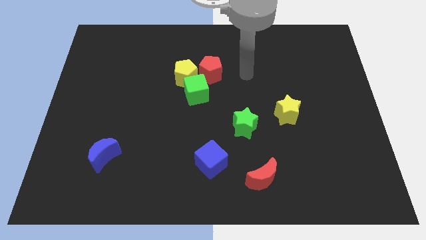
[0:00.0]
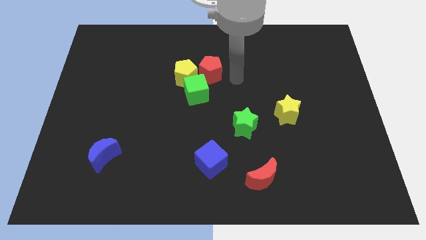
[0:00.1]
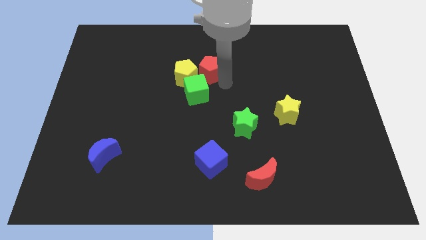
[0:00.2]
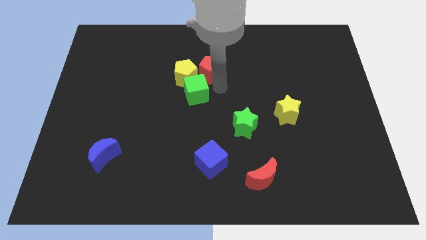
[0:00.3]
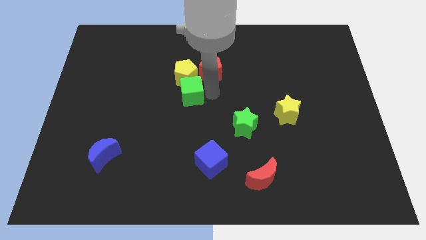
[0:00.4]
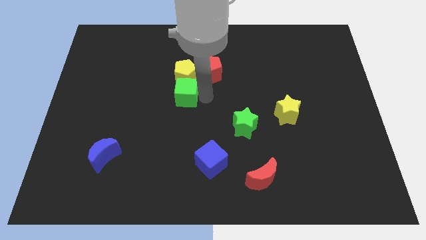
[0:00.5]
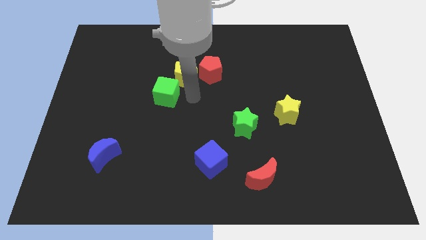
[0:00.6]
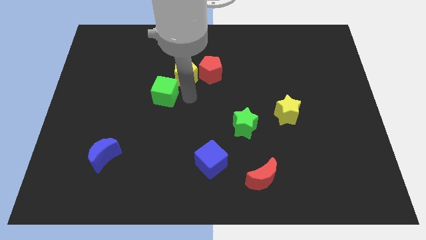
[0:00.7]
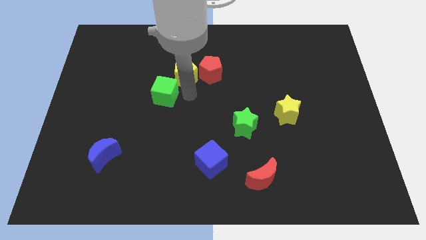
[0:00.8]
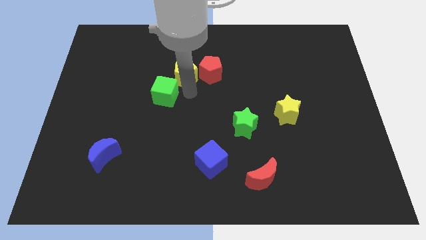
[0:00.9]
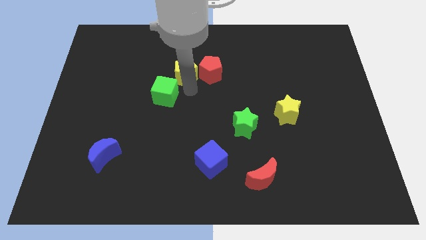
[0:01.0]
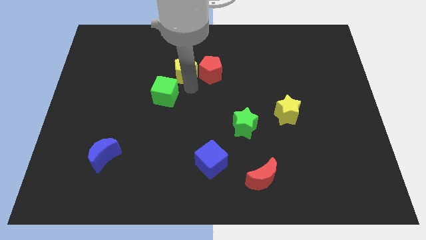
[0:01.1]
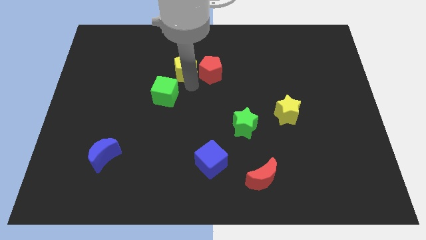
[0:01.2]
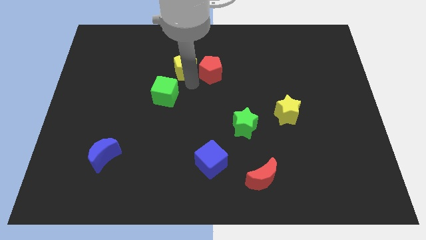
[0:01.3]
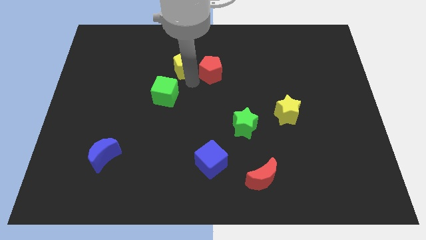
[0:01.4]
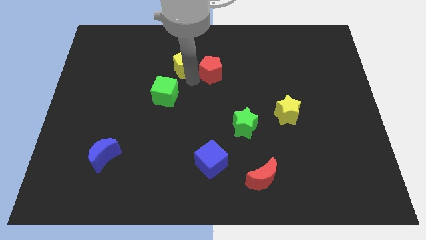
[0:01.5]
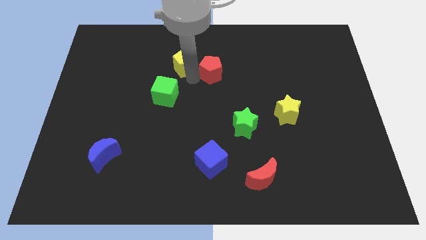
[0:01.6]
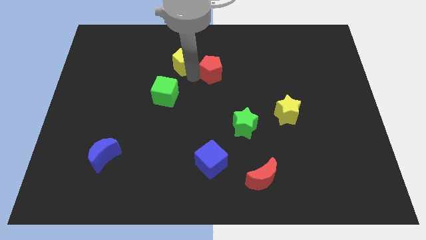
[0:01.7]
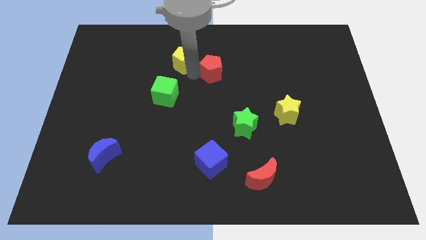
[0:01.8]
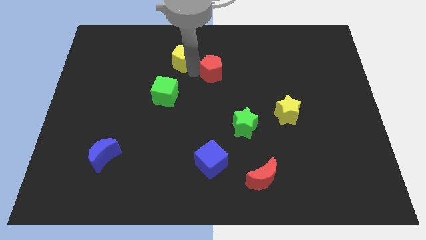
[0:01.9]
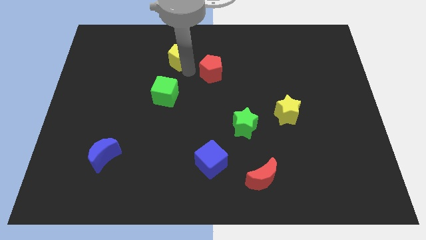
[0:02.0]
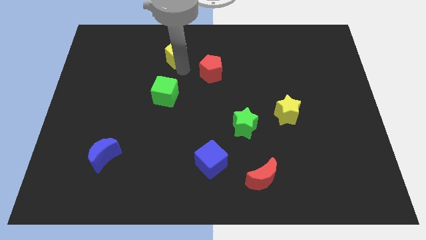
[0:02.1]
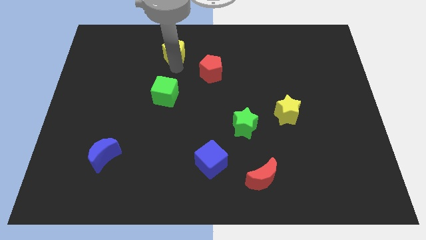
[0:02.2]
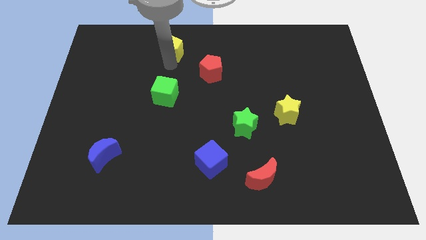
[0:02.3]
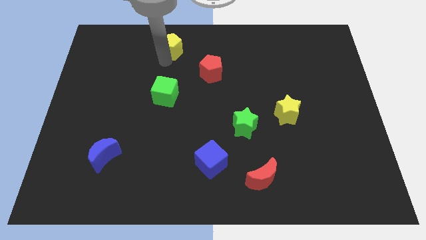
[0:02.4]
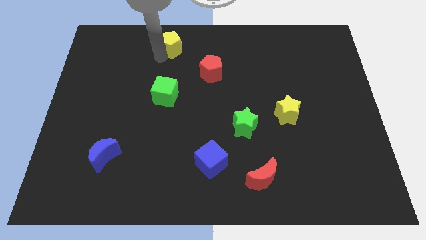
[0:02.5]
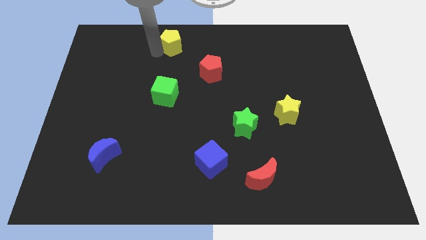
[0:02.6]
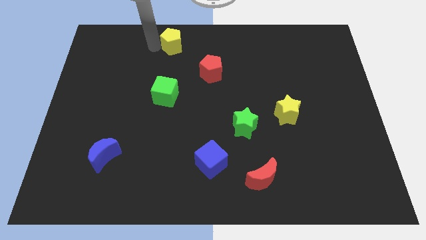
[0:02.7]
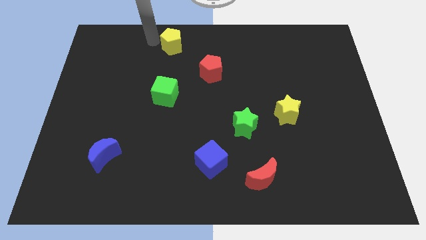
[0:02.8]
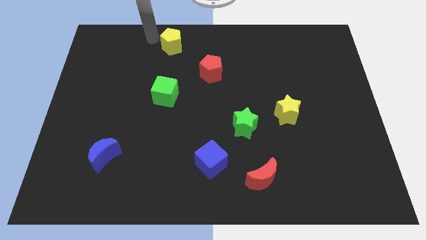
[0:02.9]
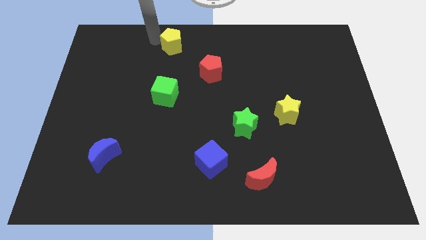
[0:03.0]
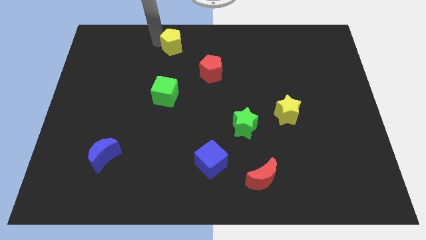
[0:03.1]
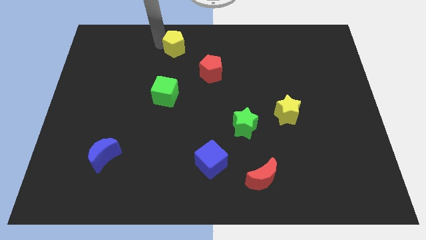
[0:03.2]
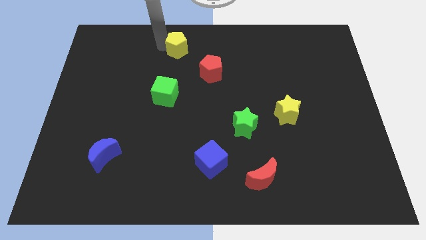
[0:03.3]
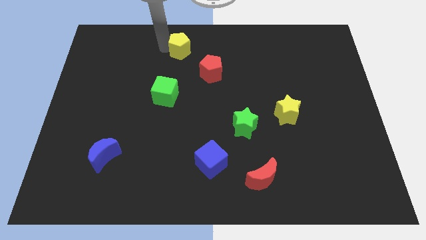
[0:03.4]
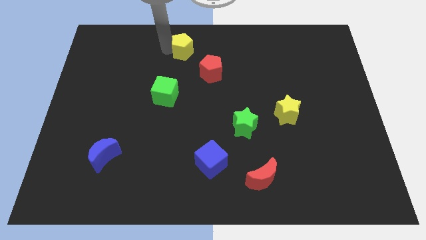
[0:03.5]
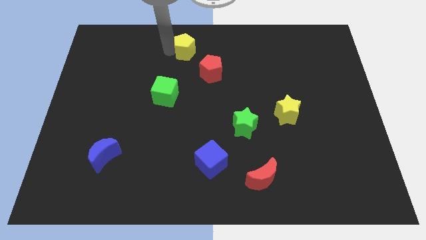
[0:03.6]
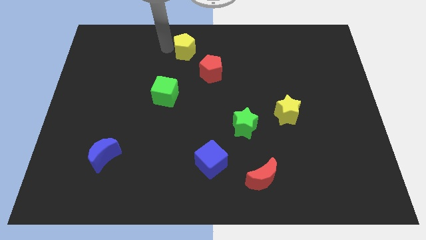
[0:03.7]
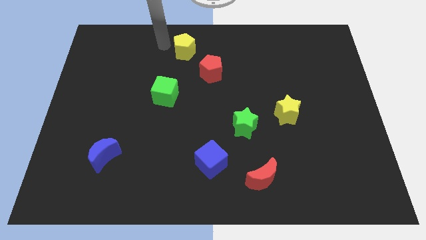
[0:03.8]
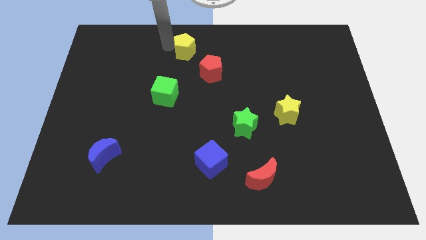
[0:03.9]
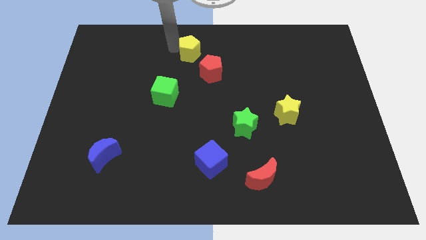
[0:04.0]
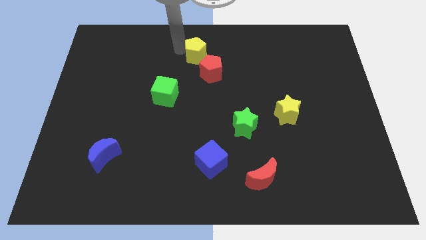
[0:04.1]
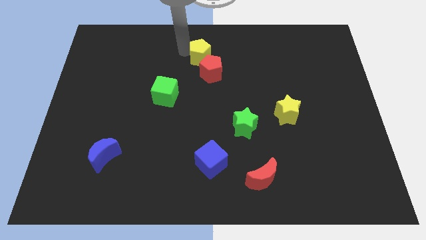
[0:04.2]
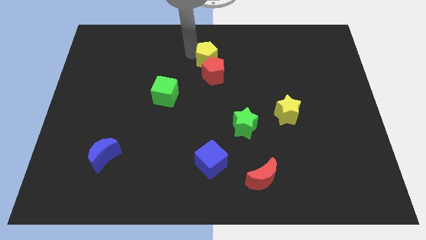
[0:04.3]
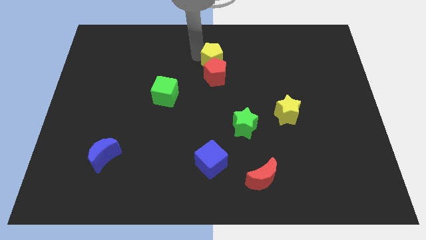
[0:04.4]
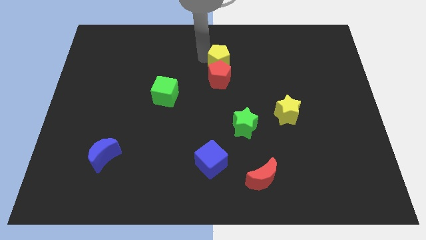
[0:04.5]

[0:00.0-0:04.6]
slightly push the yellow pentagon to the right

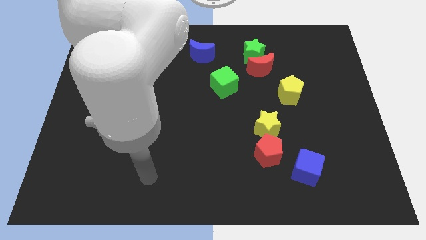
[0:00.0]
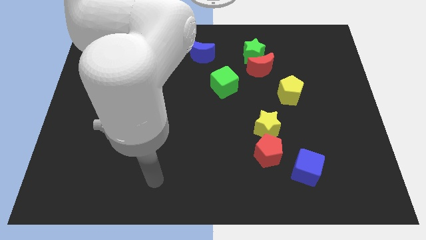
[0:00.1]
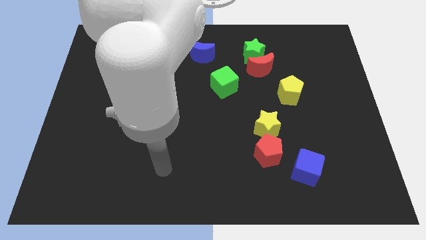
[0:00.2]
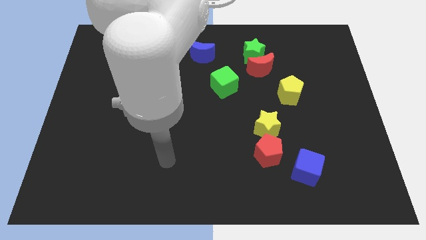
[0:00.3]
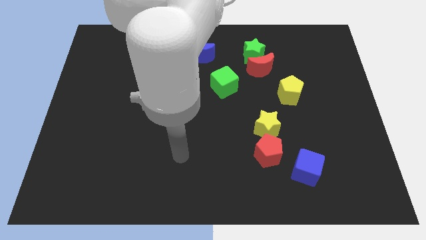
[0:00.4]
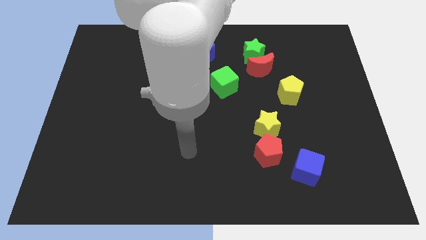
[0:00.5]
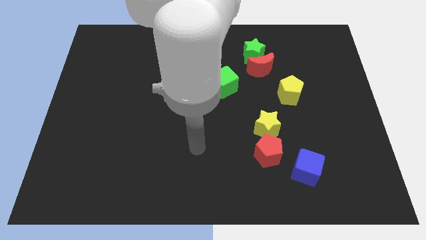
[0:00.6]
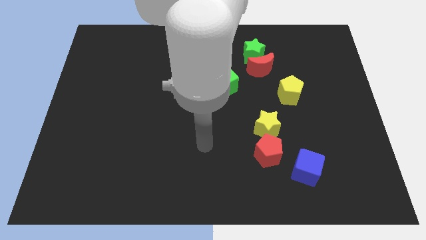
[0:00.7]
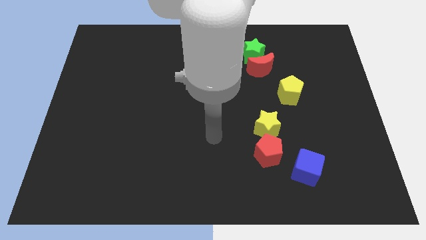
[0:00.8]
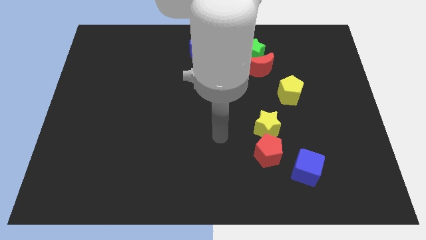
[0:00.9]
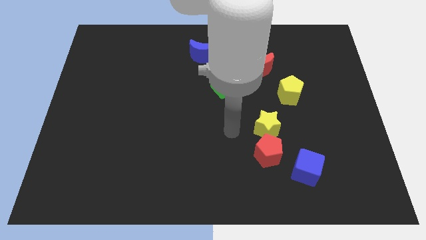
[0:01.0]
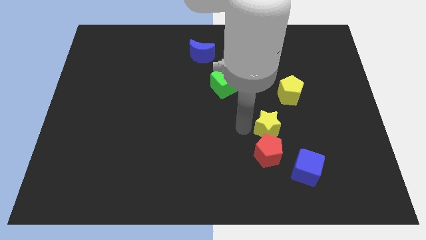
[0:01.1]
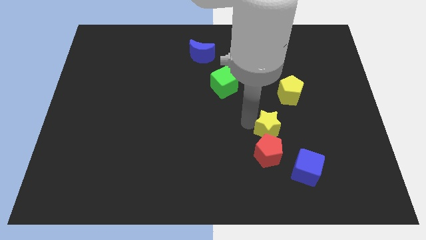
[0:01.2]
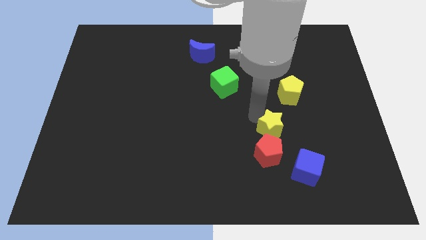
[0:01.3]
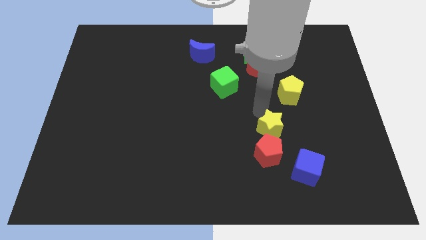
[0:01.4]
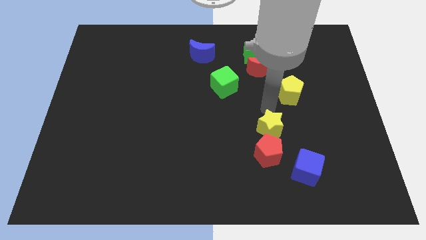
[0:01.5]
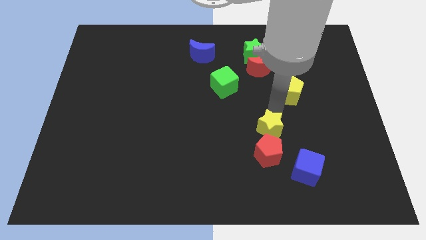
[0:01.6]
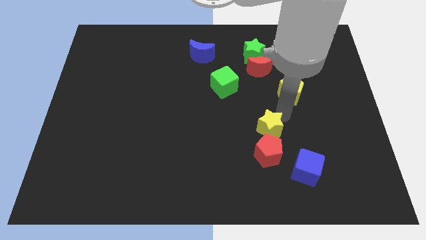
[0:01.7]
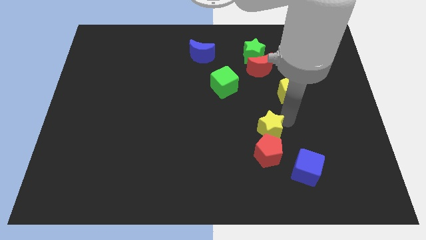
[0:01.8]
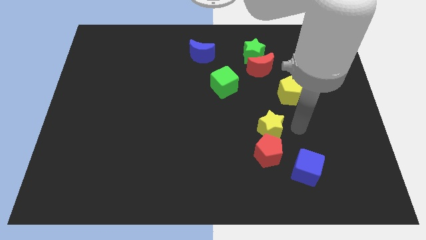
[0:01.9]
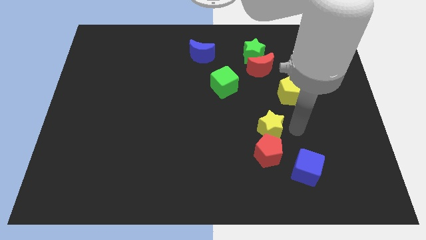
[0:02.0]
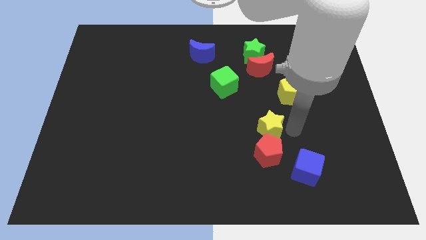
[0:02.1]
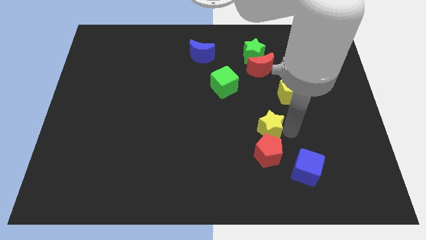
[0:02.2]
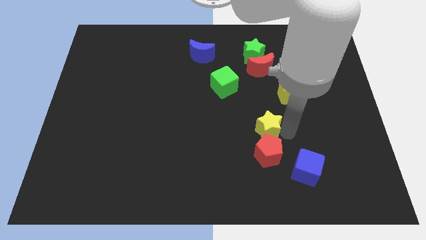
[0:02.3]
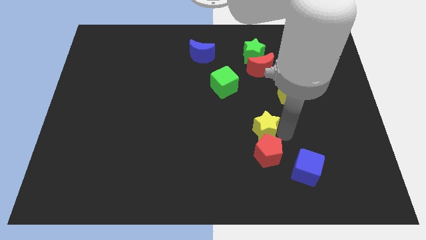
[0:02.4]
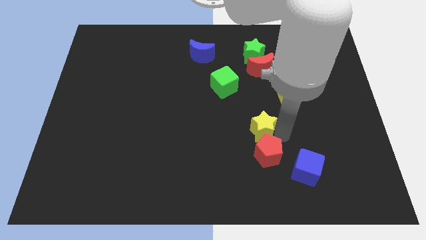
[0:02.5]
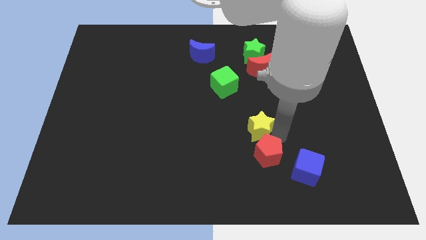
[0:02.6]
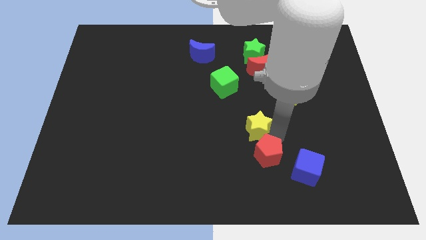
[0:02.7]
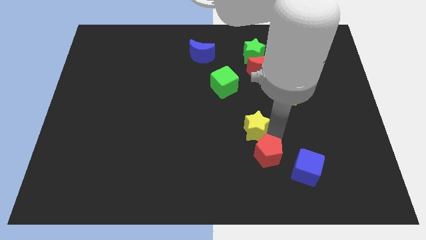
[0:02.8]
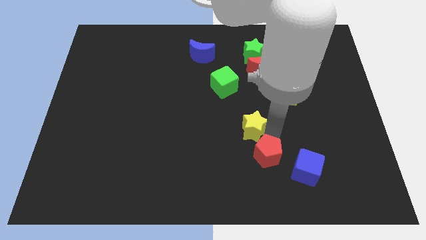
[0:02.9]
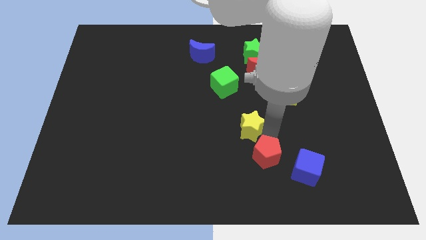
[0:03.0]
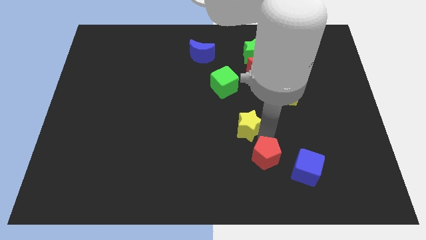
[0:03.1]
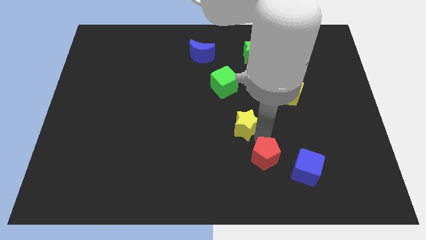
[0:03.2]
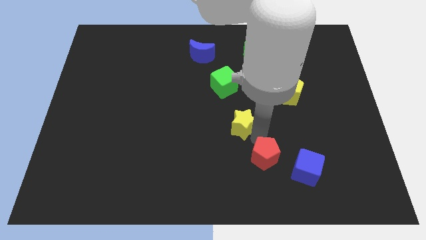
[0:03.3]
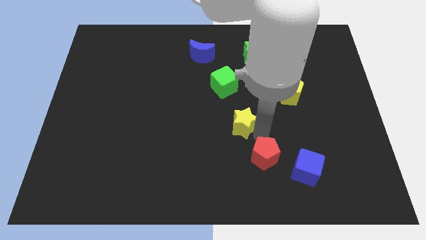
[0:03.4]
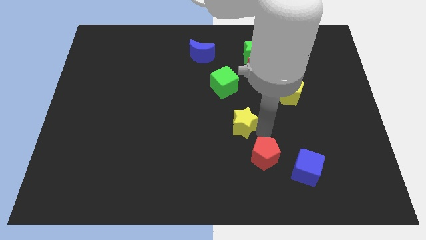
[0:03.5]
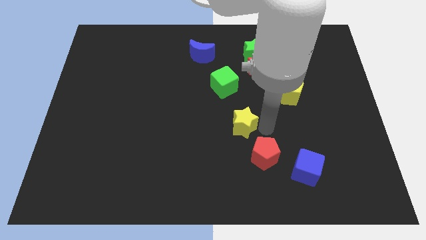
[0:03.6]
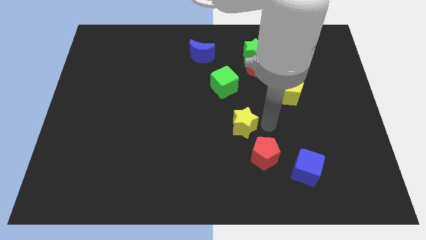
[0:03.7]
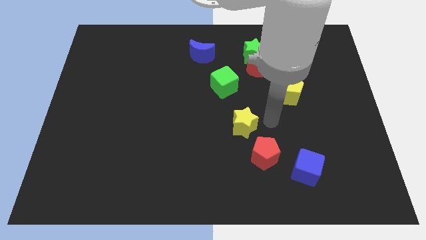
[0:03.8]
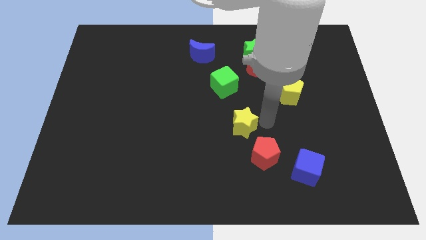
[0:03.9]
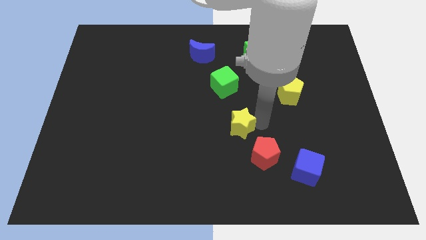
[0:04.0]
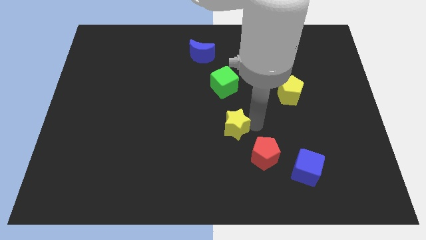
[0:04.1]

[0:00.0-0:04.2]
move the yellow star left somewhat
